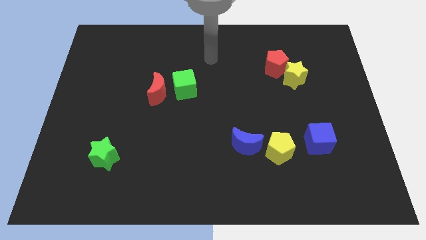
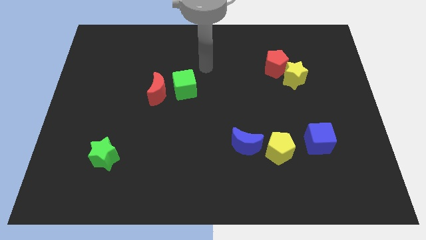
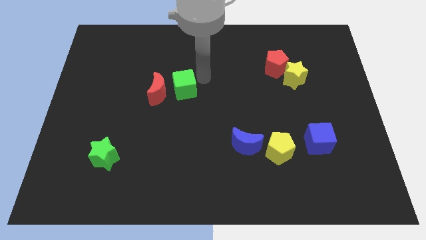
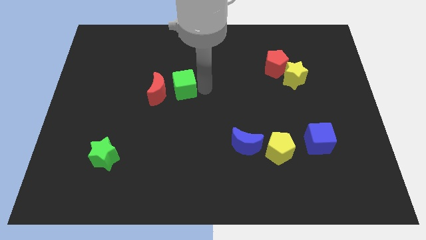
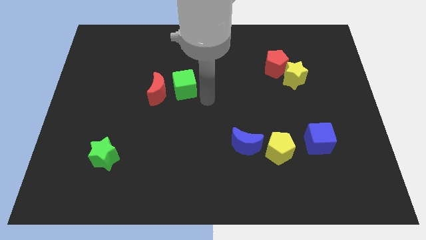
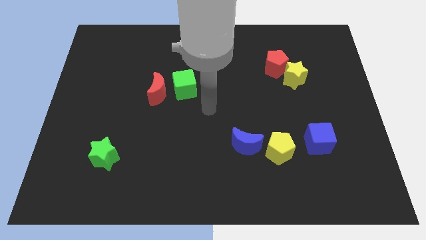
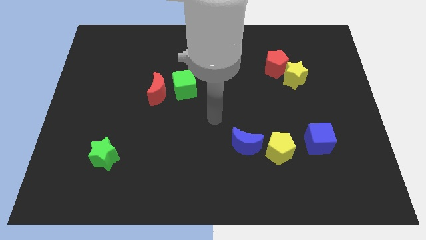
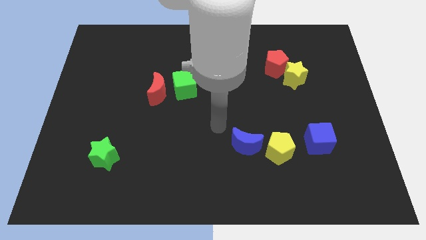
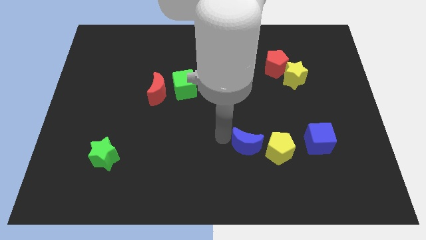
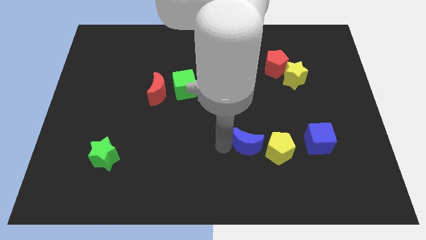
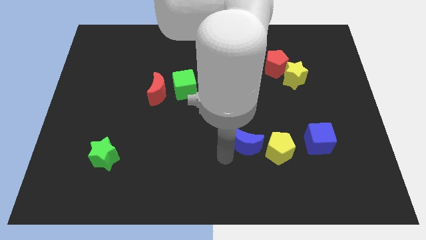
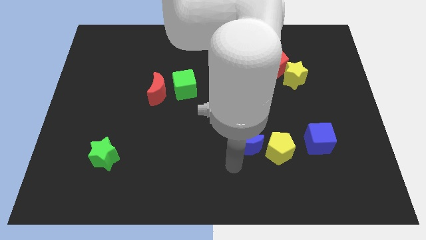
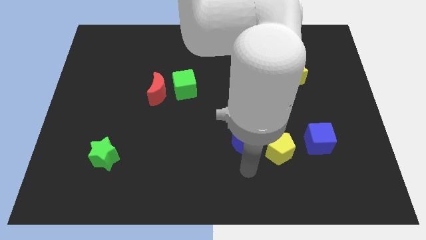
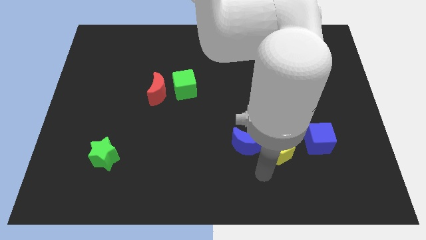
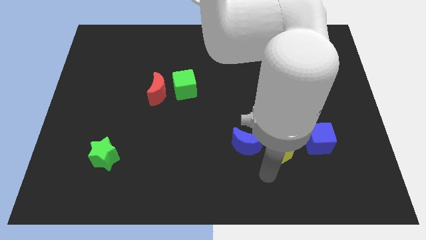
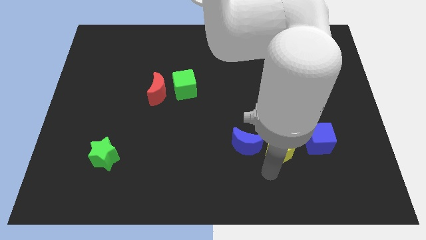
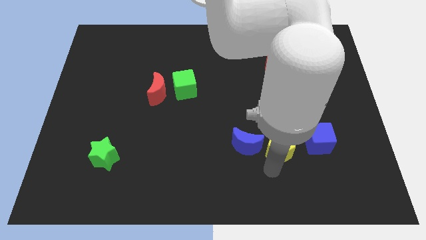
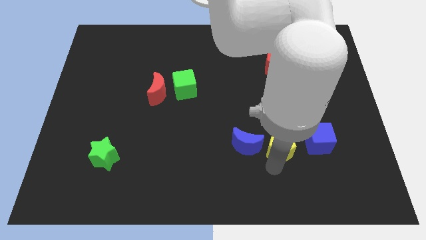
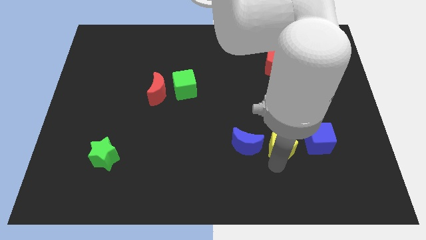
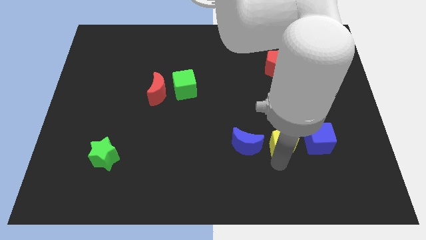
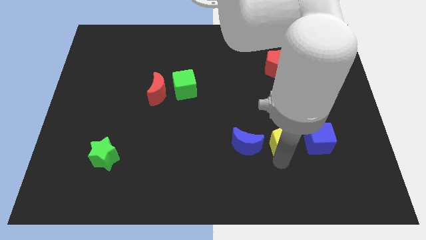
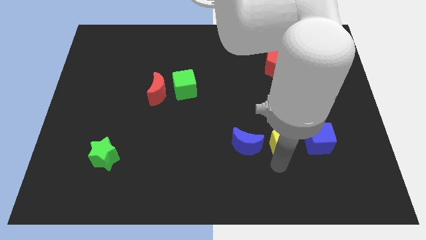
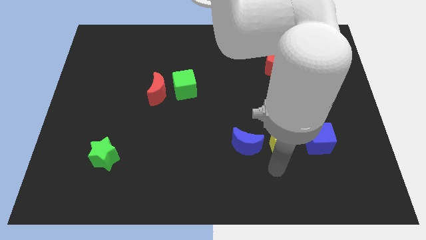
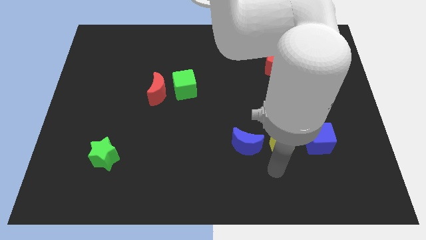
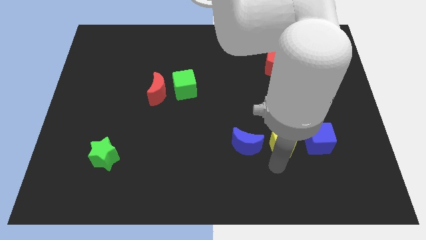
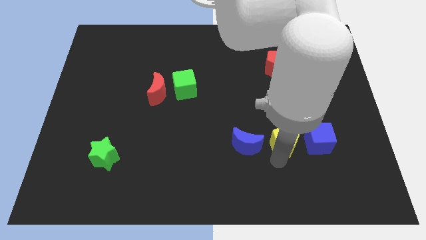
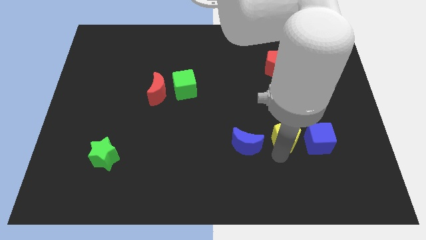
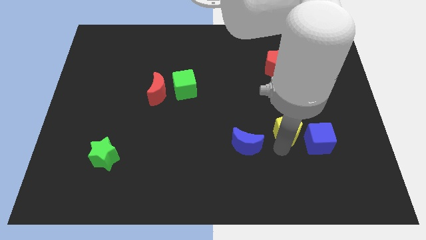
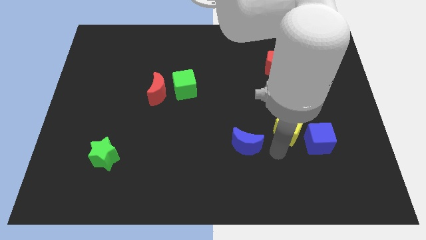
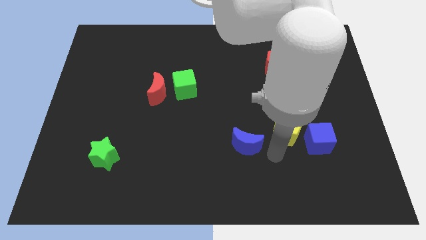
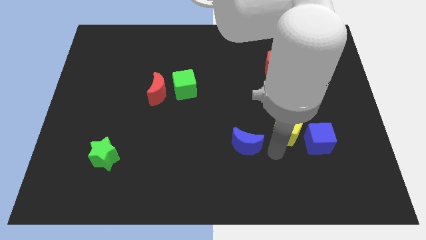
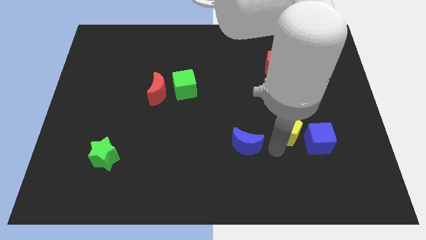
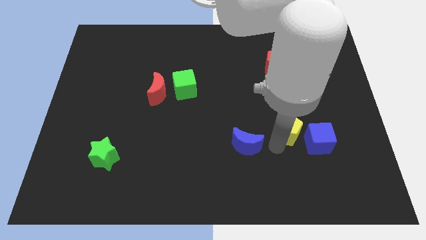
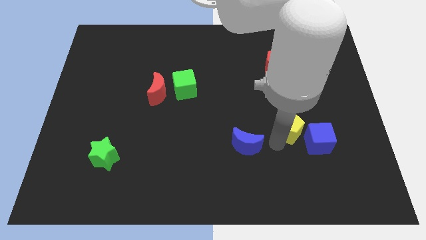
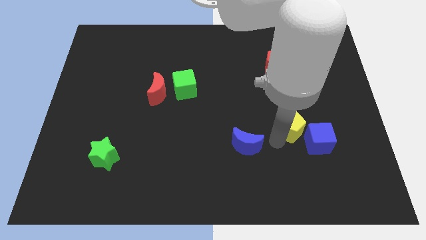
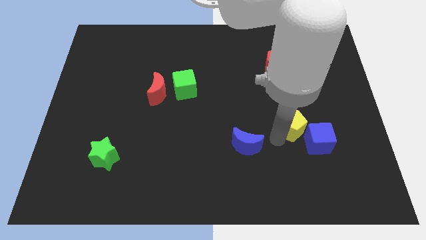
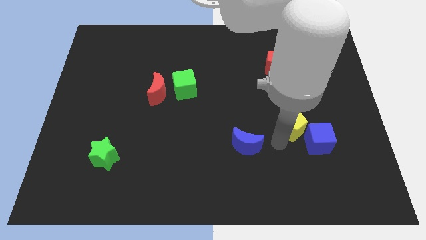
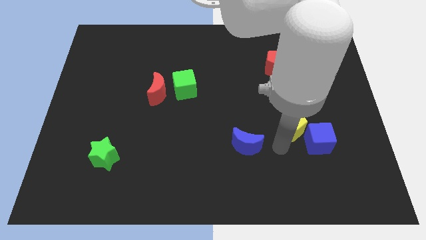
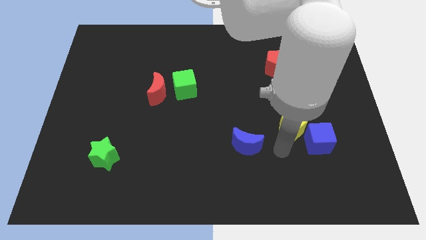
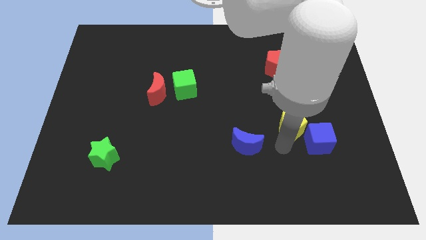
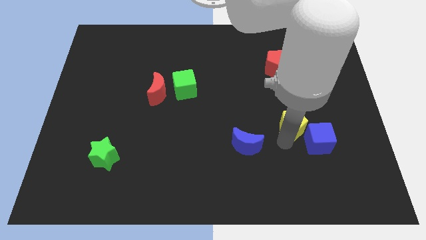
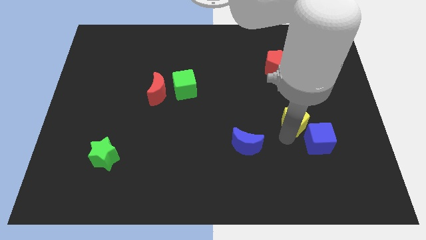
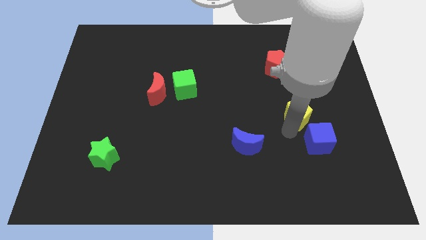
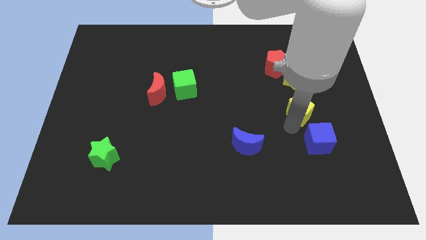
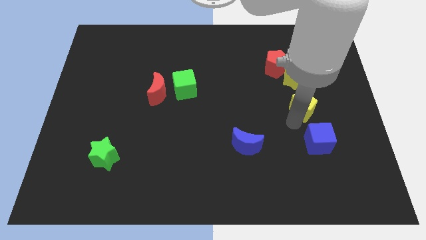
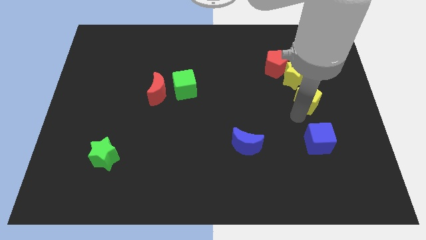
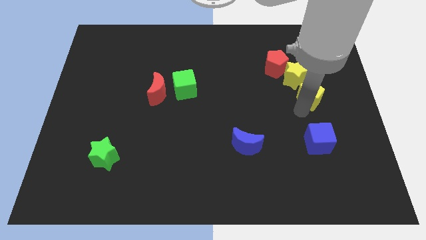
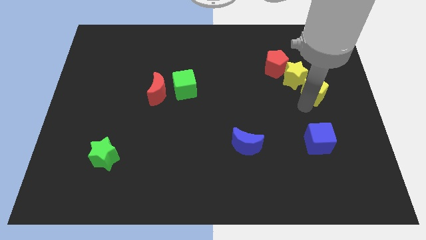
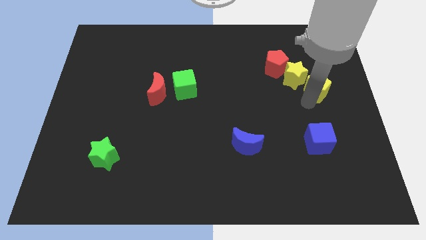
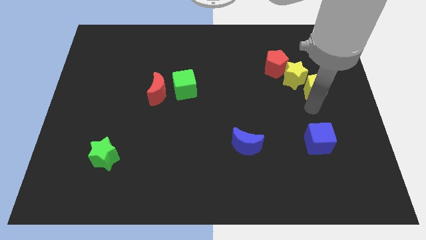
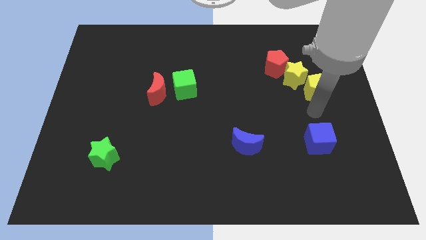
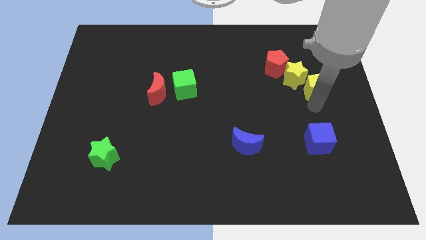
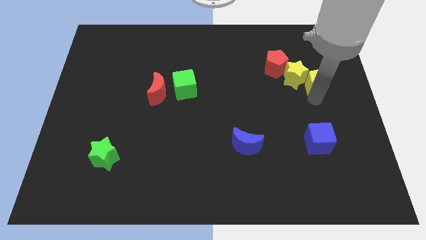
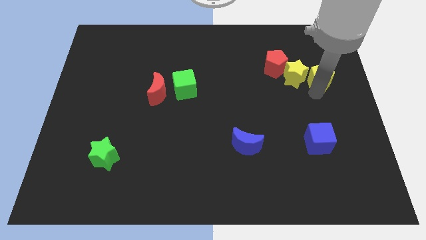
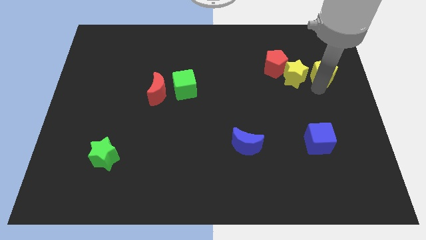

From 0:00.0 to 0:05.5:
move the yellow pentagon just right of the red pentagon

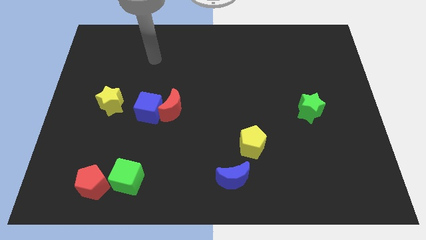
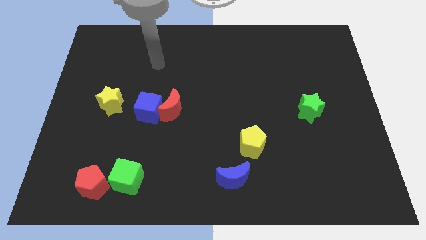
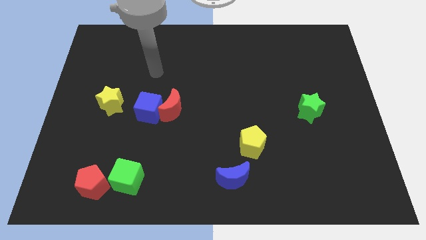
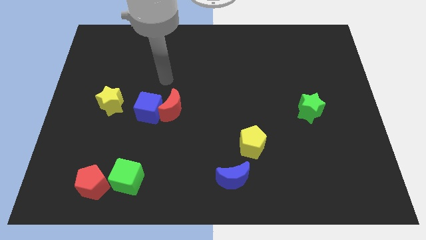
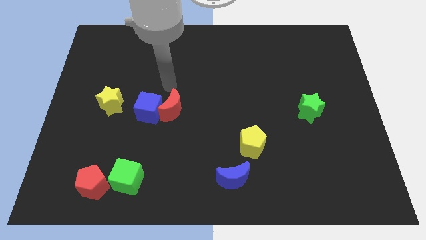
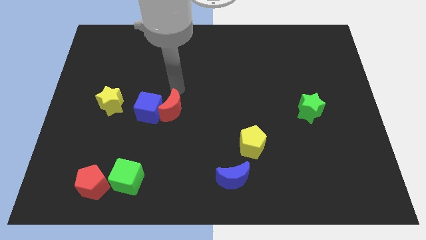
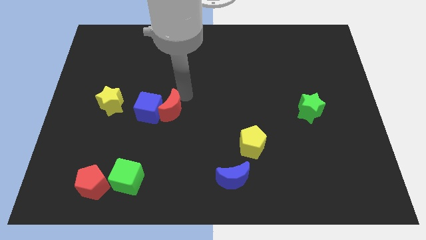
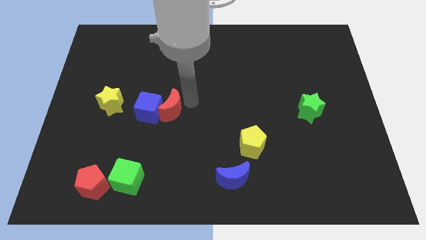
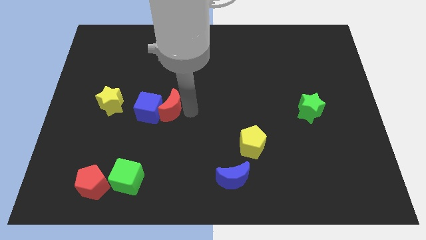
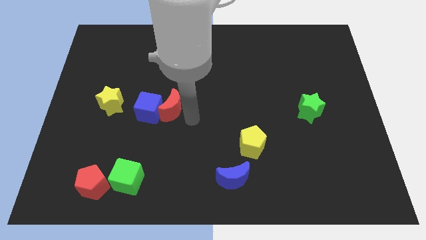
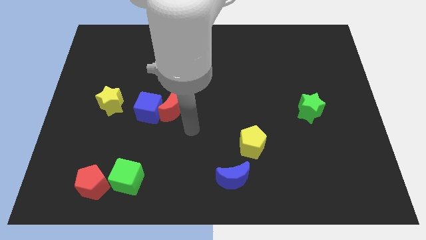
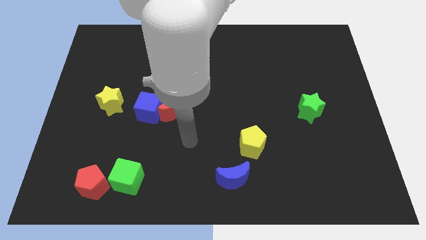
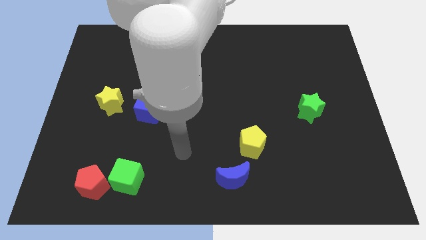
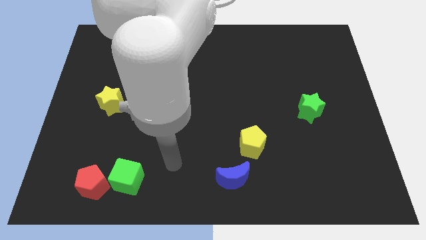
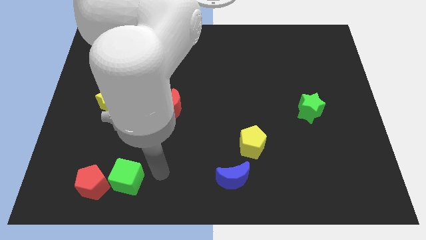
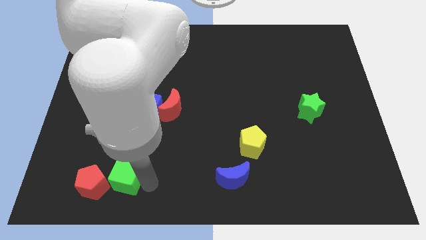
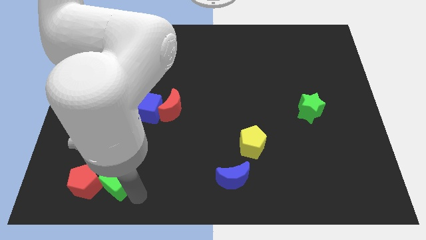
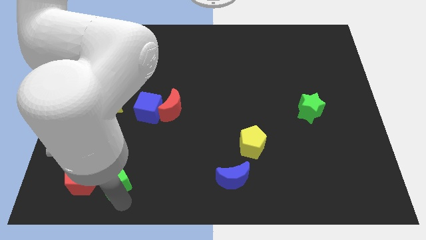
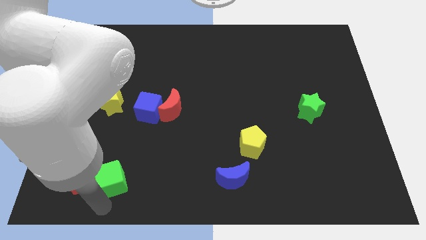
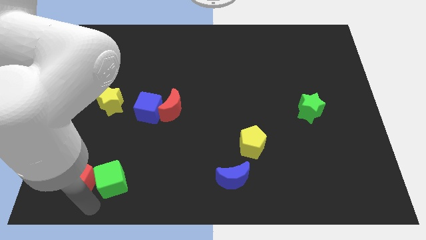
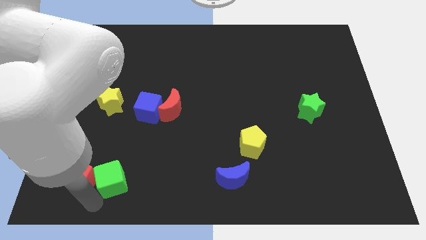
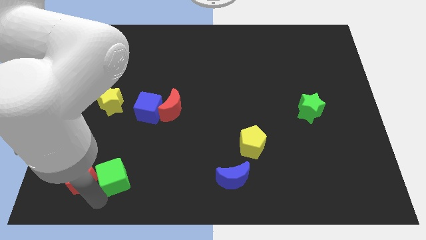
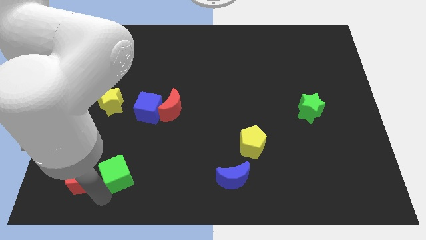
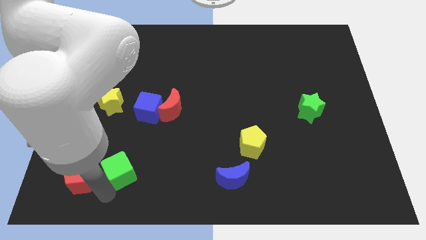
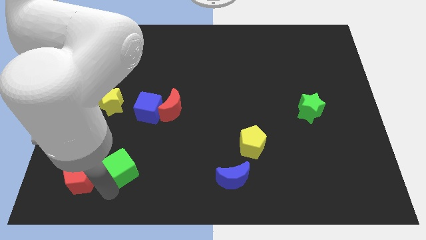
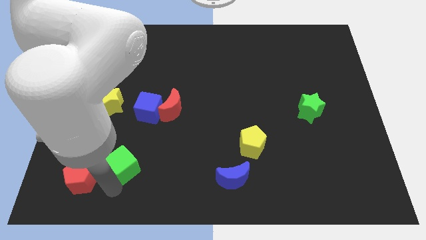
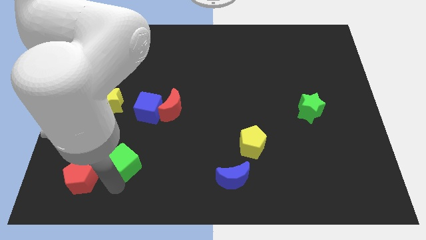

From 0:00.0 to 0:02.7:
move the green cube below the blue cube
